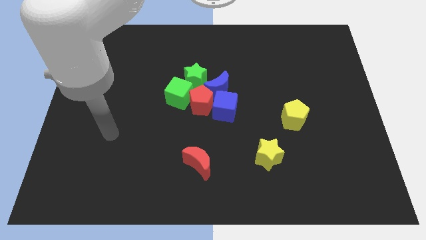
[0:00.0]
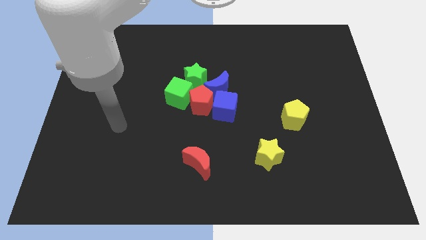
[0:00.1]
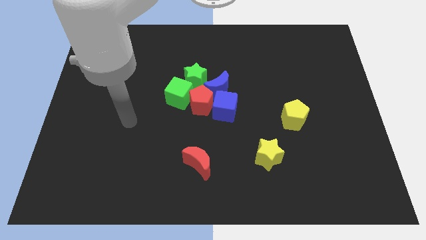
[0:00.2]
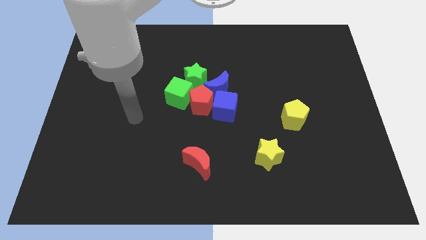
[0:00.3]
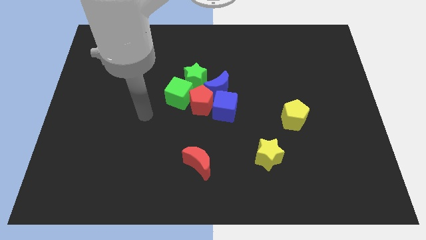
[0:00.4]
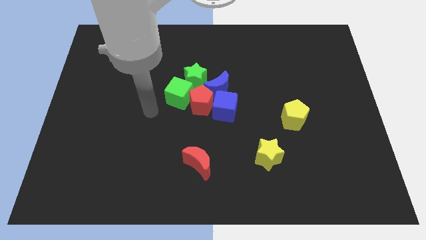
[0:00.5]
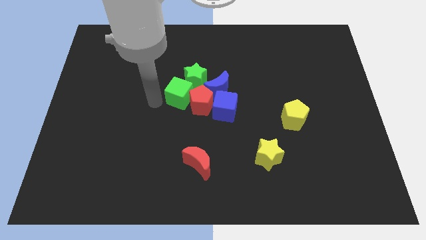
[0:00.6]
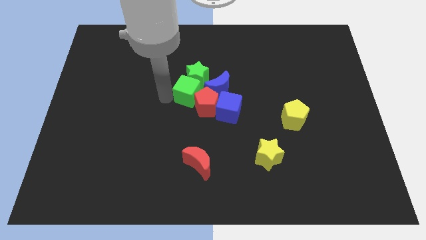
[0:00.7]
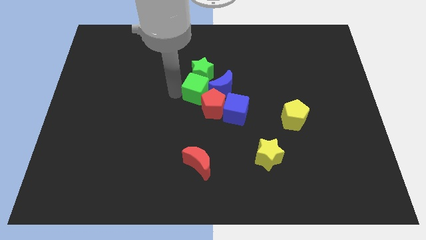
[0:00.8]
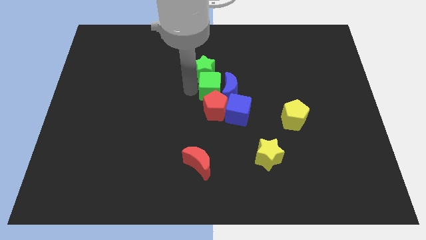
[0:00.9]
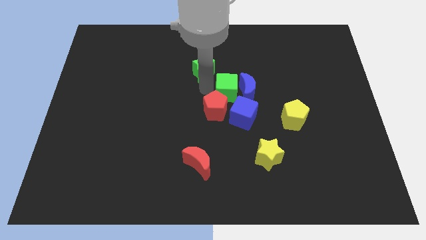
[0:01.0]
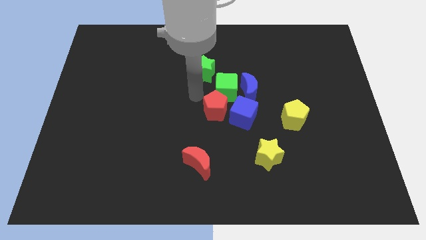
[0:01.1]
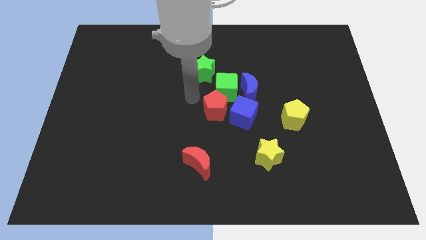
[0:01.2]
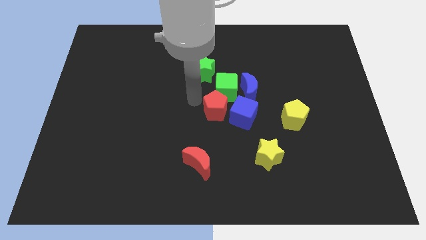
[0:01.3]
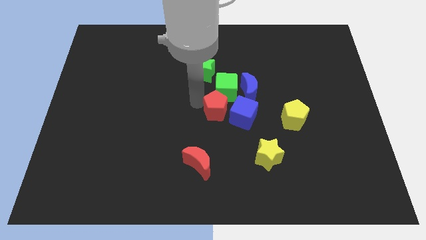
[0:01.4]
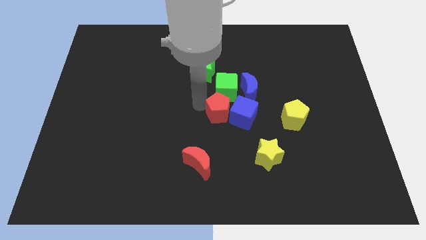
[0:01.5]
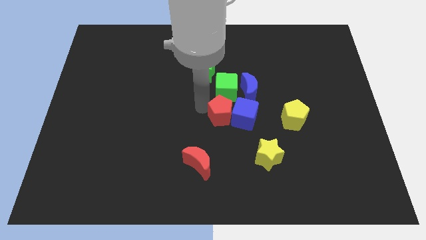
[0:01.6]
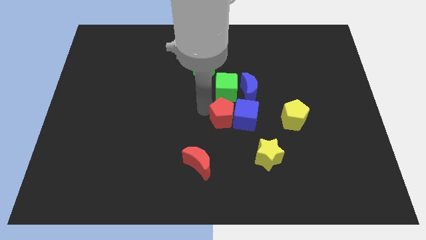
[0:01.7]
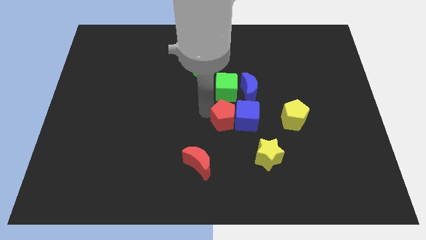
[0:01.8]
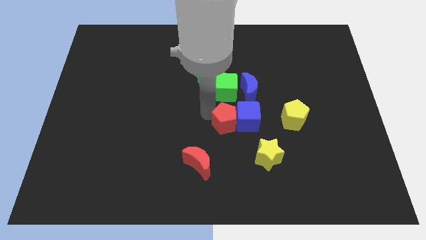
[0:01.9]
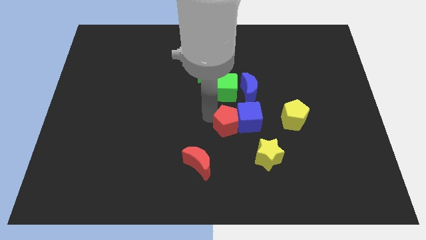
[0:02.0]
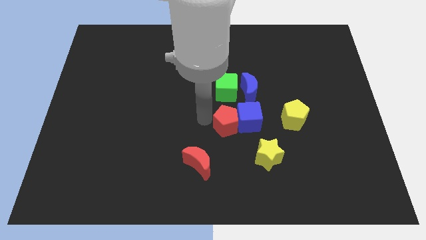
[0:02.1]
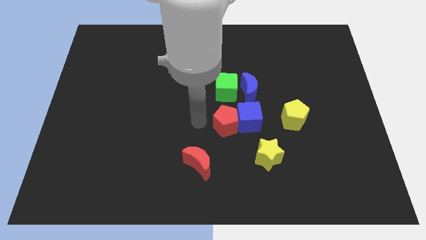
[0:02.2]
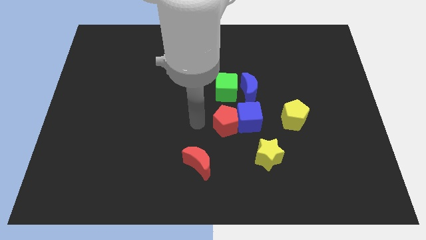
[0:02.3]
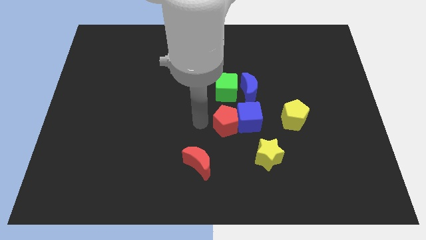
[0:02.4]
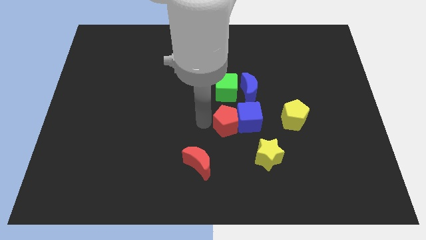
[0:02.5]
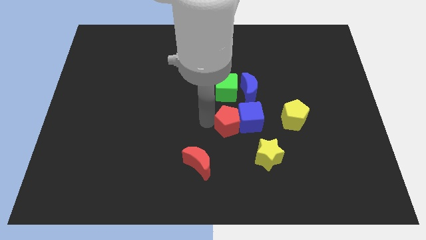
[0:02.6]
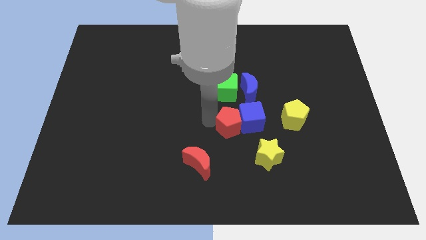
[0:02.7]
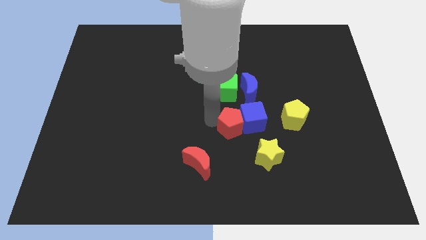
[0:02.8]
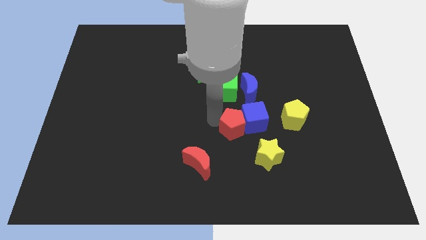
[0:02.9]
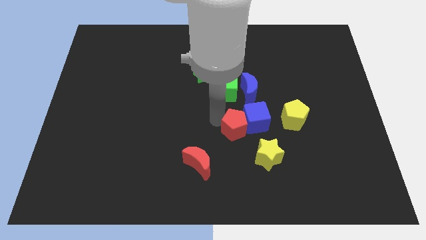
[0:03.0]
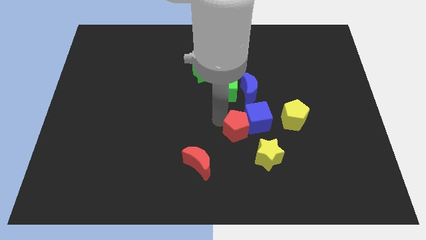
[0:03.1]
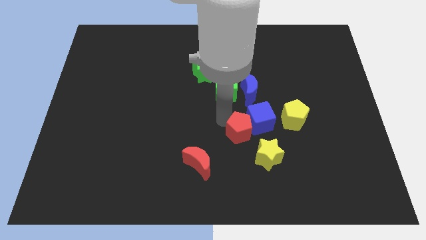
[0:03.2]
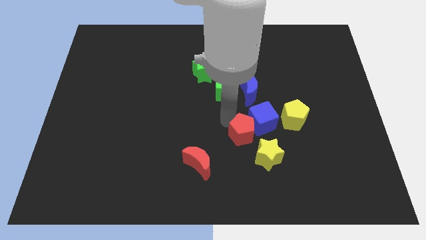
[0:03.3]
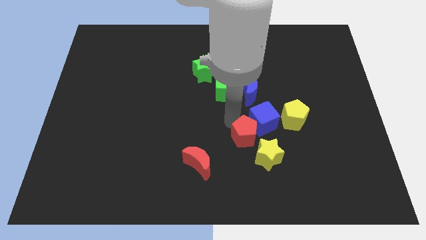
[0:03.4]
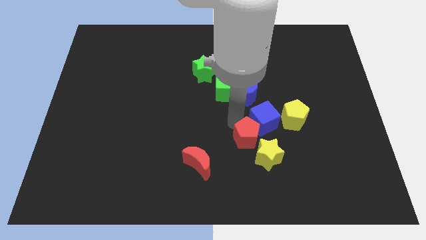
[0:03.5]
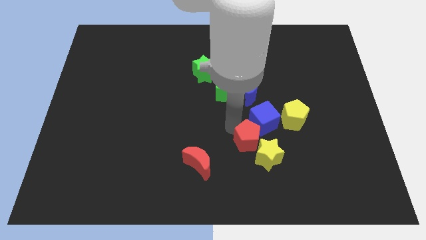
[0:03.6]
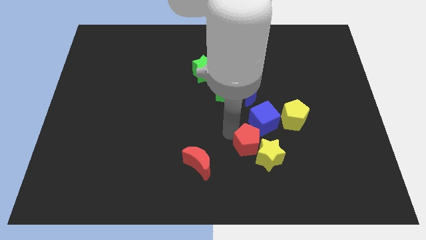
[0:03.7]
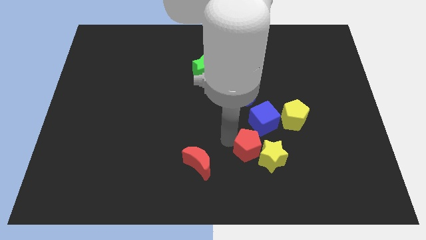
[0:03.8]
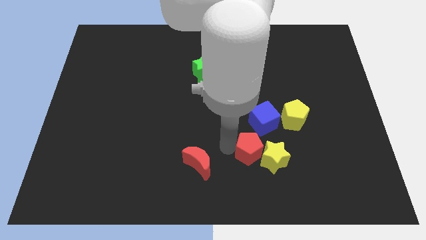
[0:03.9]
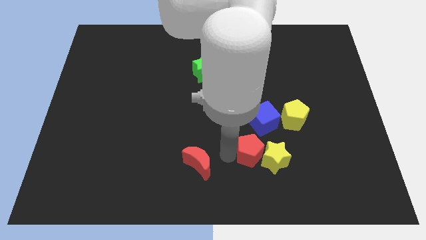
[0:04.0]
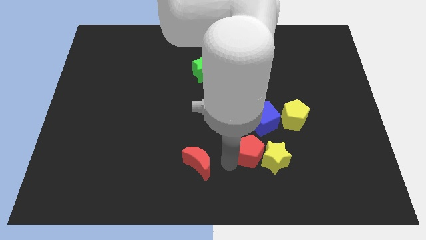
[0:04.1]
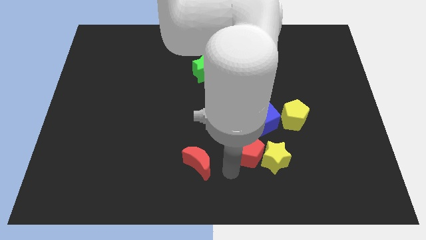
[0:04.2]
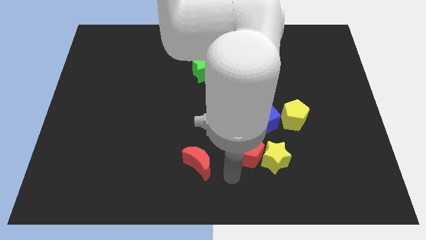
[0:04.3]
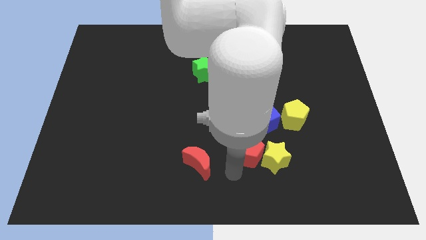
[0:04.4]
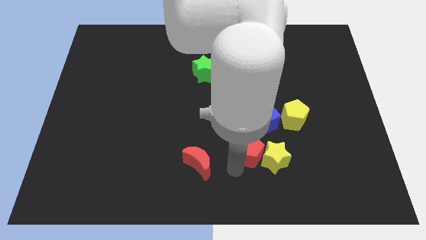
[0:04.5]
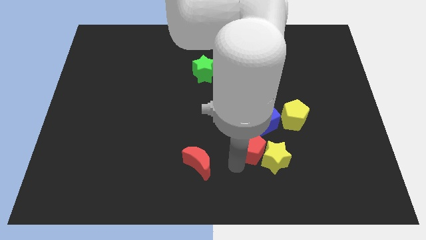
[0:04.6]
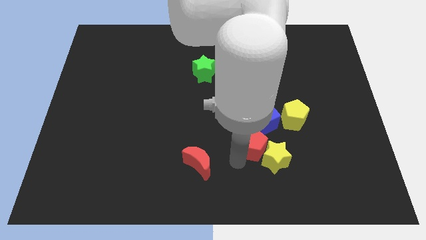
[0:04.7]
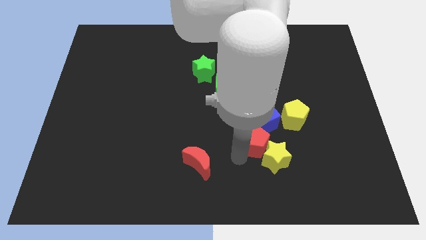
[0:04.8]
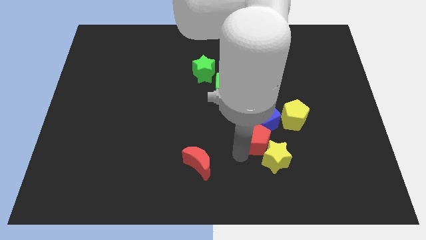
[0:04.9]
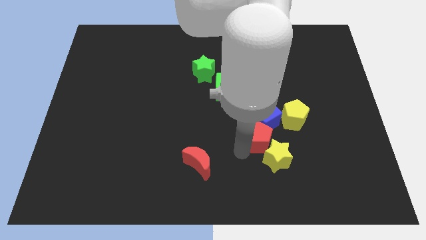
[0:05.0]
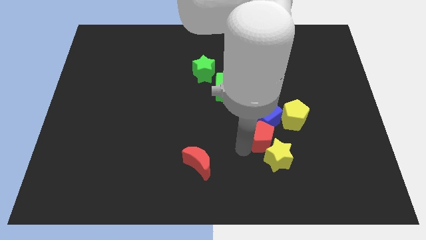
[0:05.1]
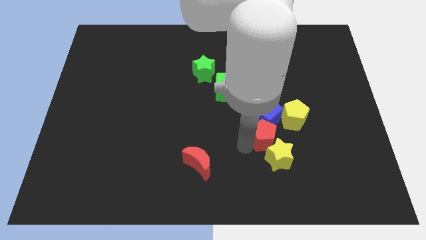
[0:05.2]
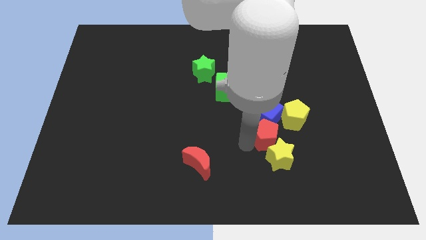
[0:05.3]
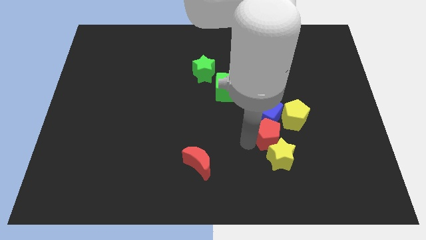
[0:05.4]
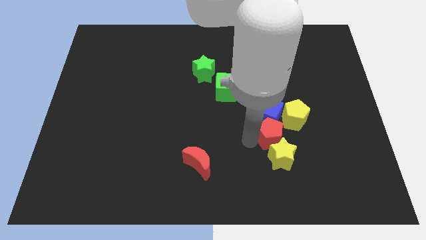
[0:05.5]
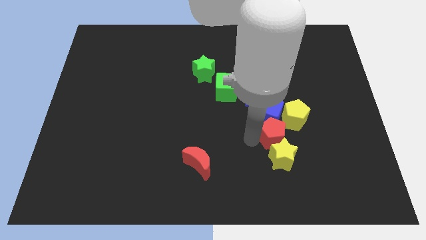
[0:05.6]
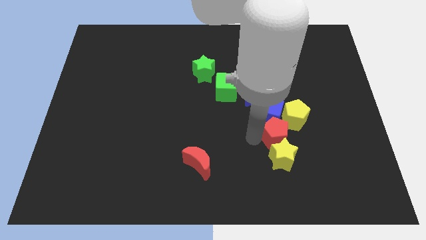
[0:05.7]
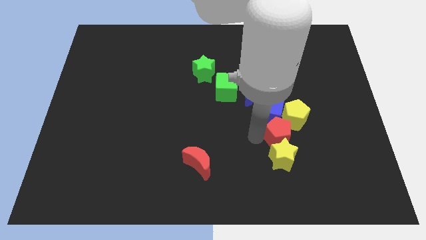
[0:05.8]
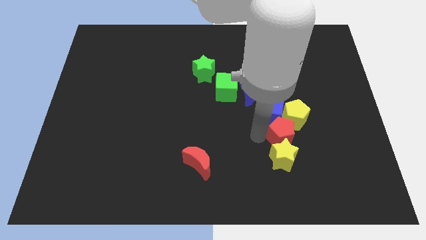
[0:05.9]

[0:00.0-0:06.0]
put the red pentagon towards the yellow pentagon

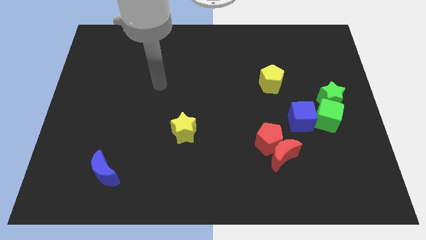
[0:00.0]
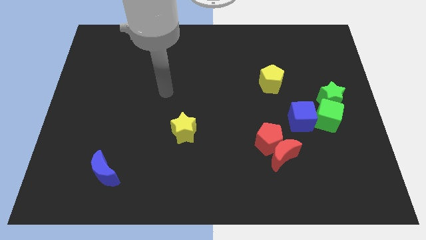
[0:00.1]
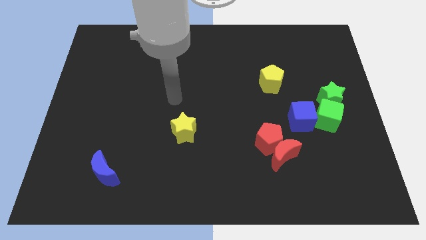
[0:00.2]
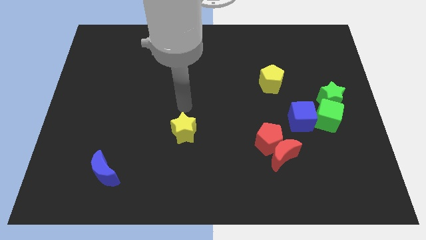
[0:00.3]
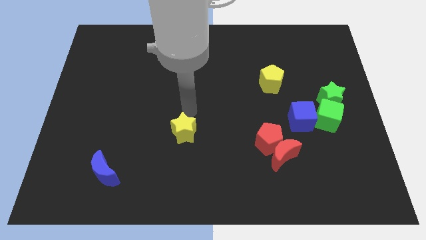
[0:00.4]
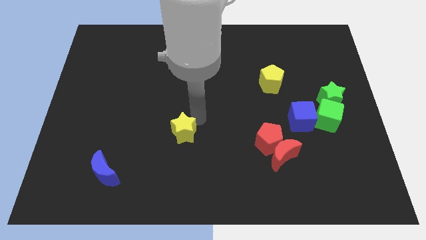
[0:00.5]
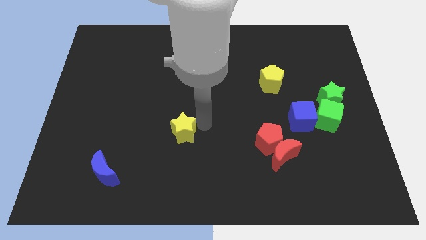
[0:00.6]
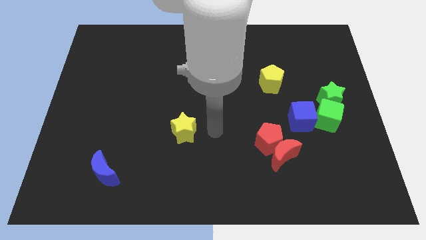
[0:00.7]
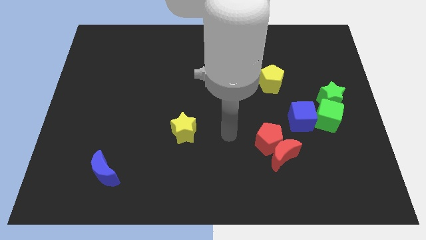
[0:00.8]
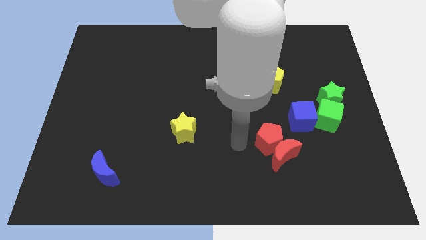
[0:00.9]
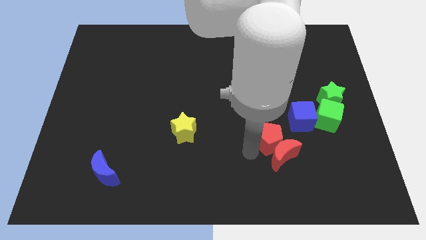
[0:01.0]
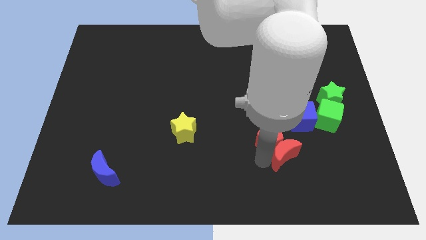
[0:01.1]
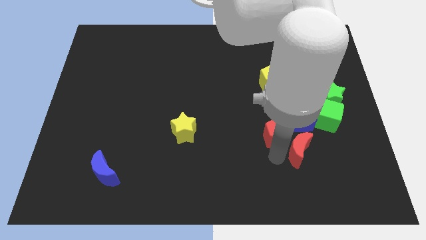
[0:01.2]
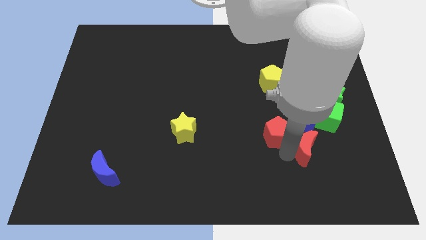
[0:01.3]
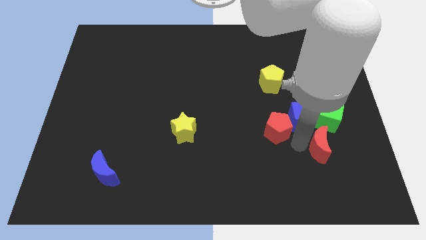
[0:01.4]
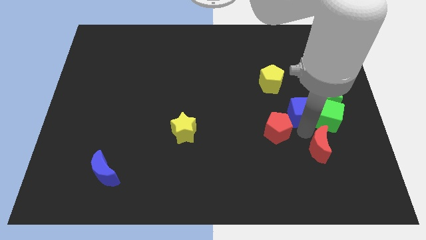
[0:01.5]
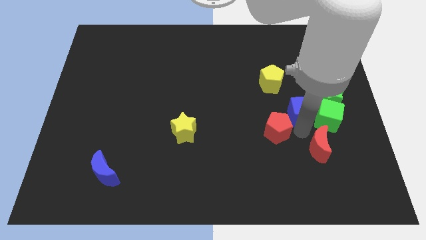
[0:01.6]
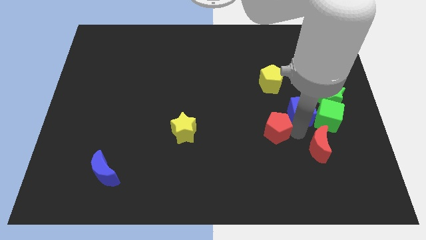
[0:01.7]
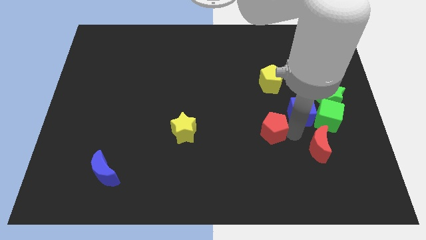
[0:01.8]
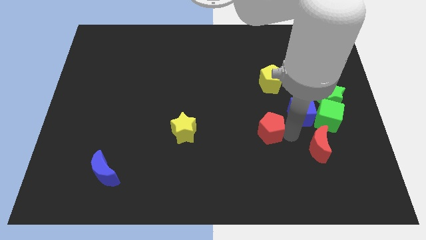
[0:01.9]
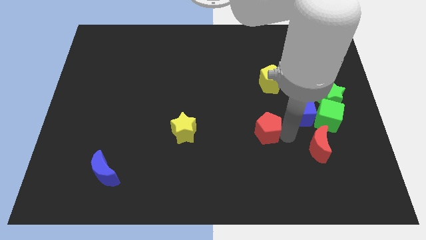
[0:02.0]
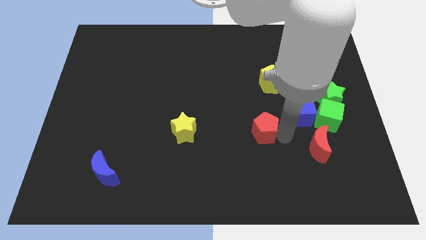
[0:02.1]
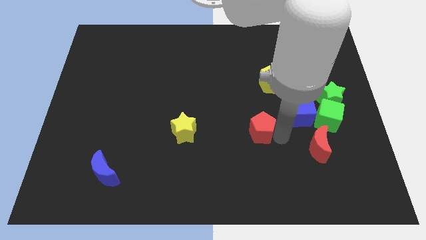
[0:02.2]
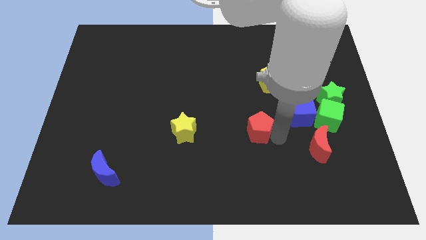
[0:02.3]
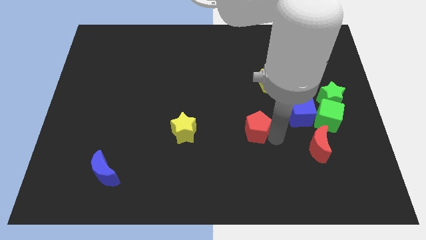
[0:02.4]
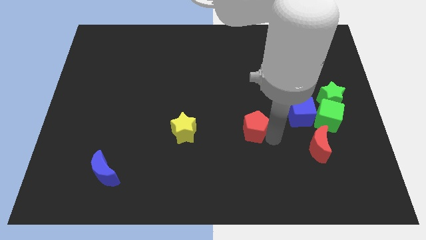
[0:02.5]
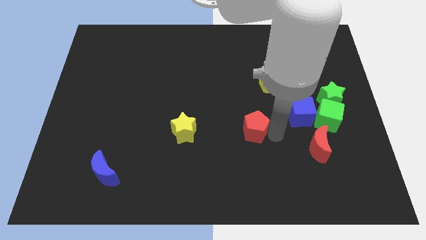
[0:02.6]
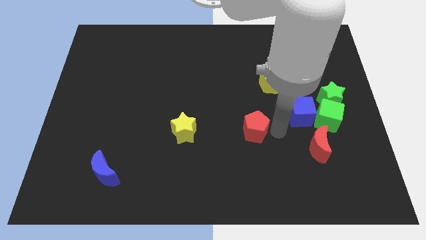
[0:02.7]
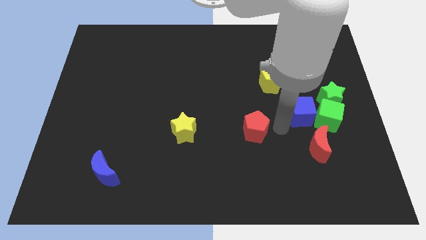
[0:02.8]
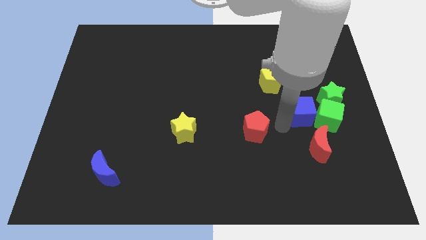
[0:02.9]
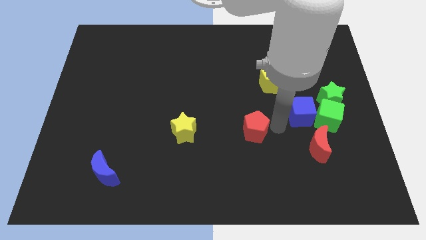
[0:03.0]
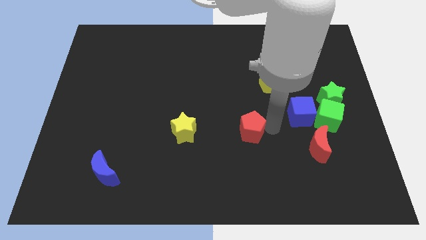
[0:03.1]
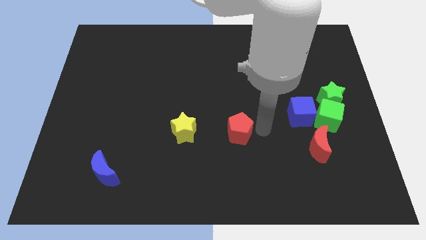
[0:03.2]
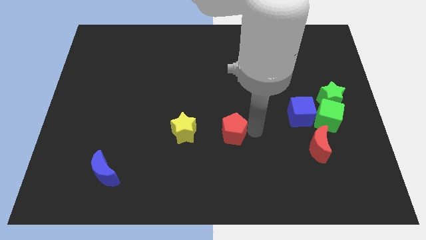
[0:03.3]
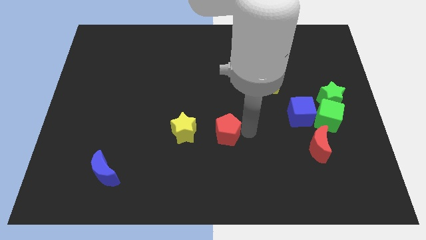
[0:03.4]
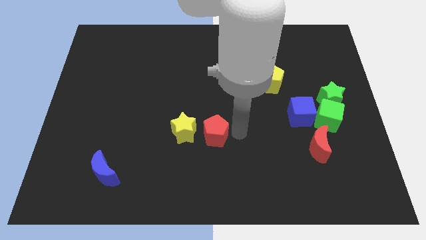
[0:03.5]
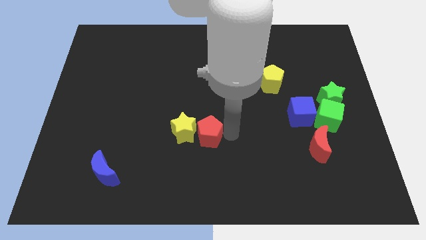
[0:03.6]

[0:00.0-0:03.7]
push the red pentagon next to the yellow star
